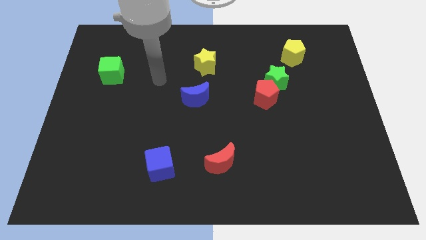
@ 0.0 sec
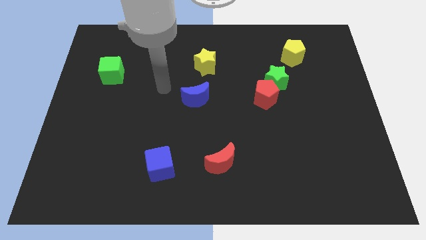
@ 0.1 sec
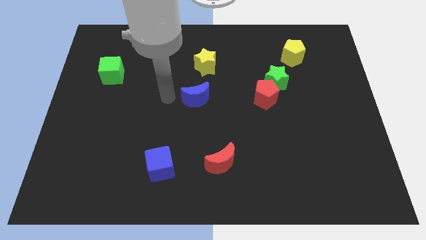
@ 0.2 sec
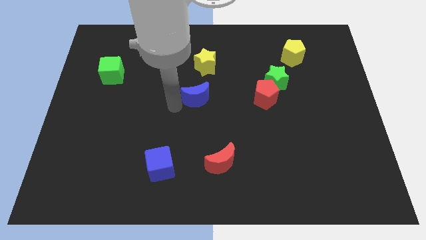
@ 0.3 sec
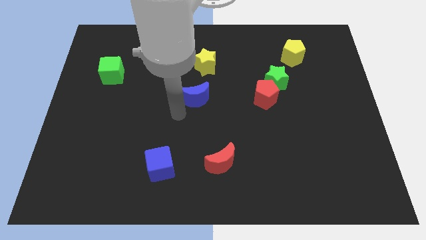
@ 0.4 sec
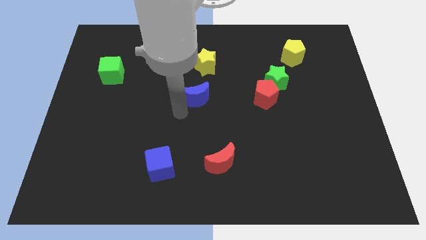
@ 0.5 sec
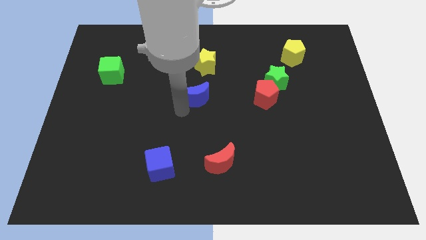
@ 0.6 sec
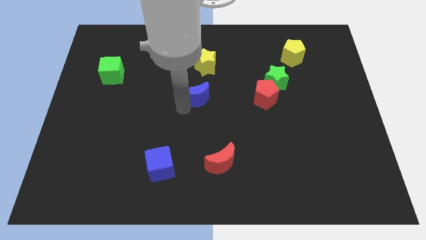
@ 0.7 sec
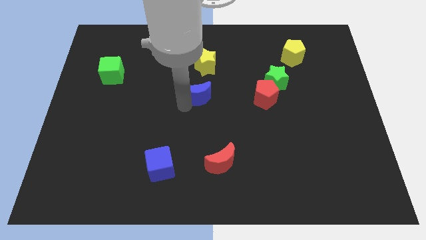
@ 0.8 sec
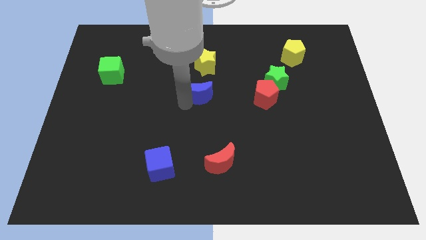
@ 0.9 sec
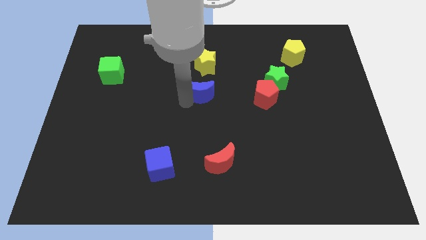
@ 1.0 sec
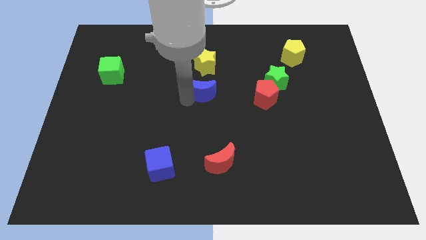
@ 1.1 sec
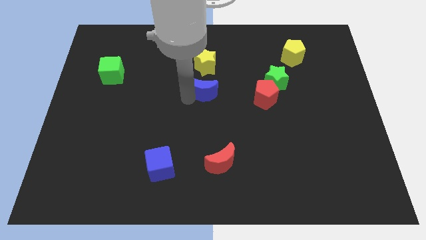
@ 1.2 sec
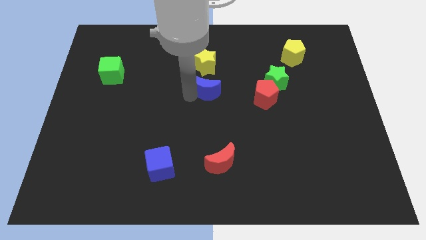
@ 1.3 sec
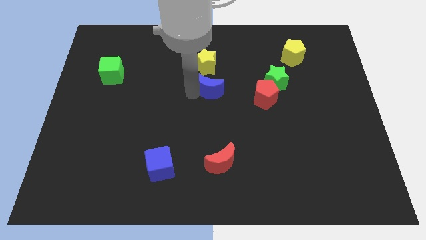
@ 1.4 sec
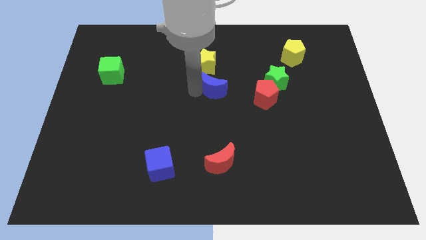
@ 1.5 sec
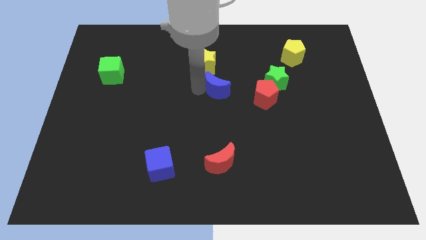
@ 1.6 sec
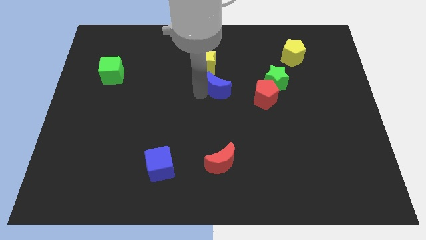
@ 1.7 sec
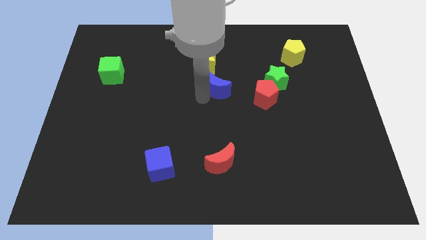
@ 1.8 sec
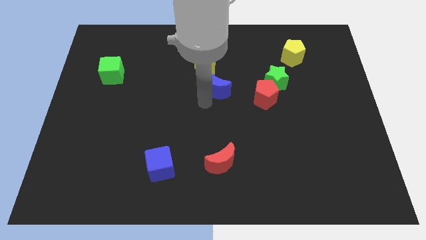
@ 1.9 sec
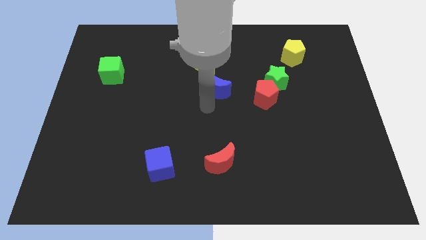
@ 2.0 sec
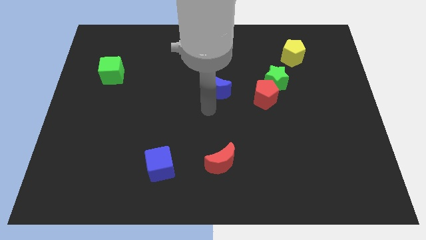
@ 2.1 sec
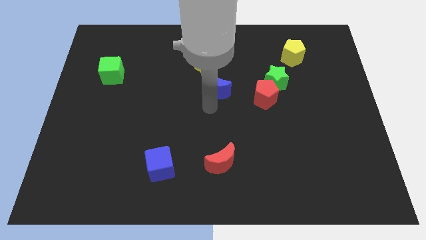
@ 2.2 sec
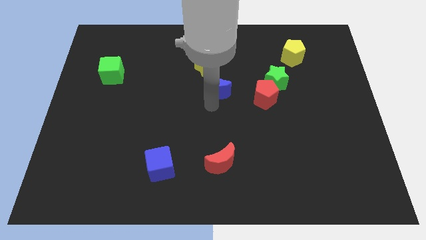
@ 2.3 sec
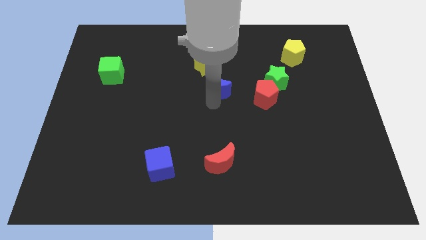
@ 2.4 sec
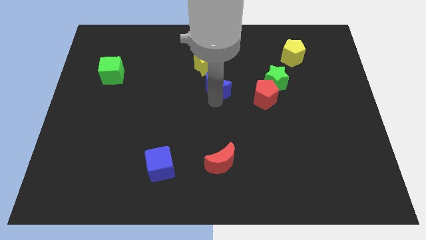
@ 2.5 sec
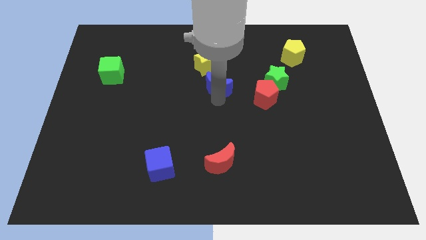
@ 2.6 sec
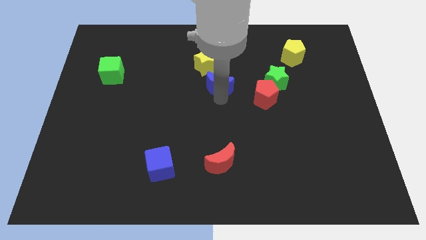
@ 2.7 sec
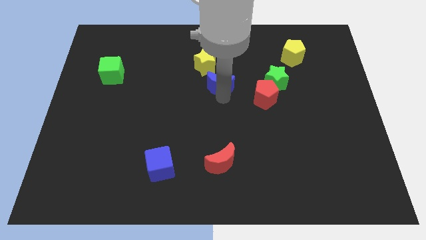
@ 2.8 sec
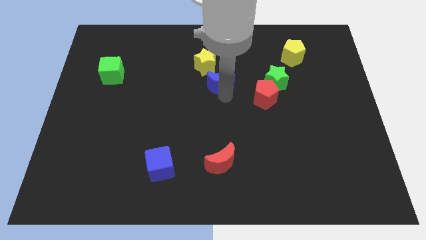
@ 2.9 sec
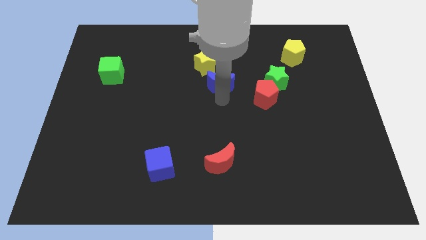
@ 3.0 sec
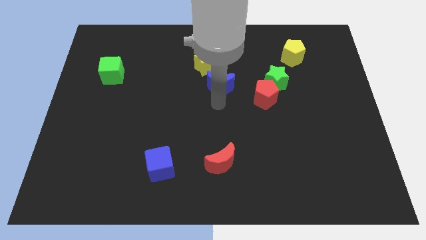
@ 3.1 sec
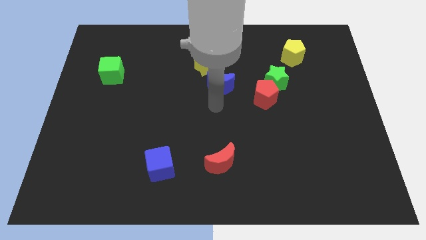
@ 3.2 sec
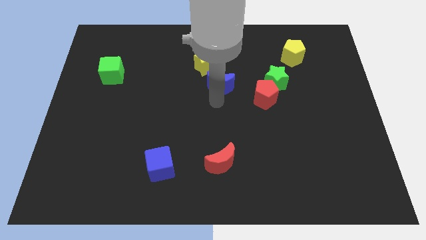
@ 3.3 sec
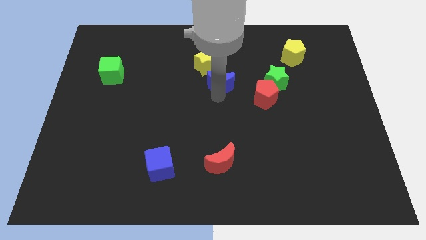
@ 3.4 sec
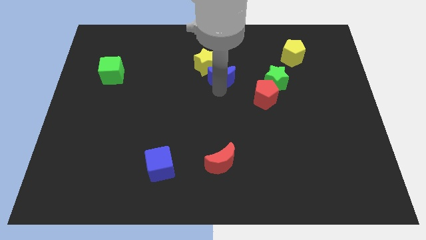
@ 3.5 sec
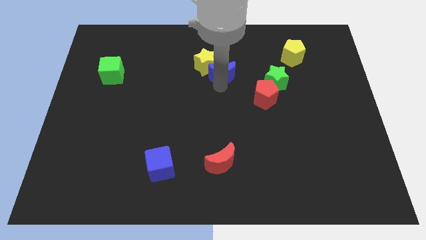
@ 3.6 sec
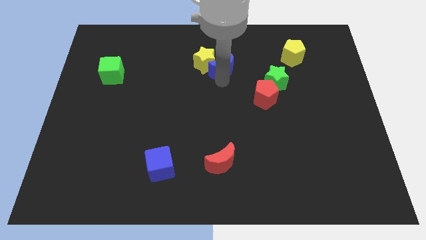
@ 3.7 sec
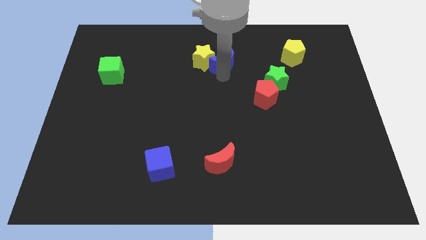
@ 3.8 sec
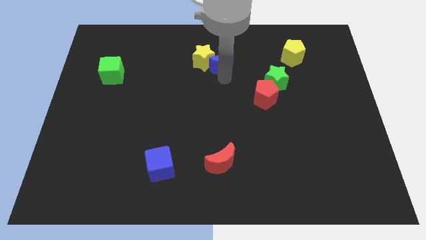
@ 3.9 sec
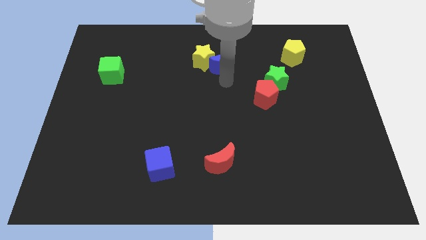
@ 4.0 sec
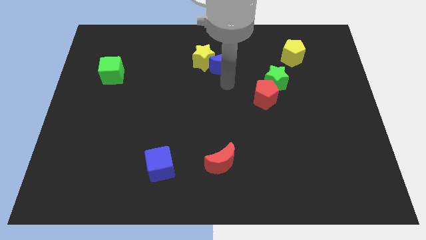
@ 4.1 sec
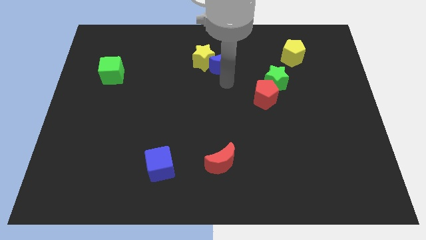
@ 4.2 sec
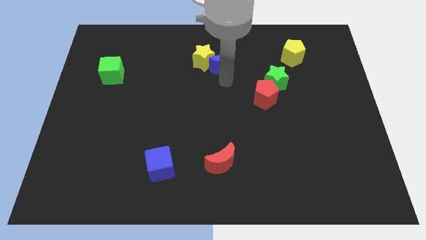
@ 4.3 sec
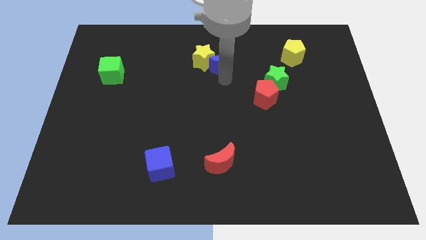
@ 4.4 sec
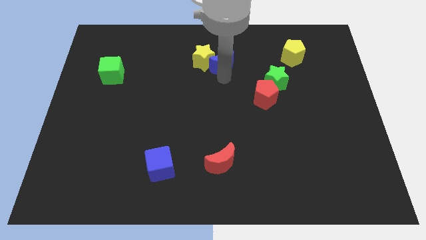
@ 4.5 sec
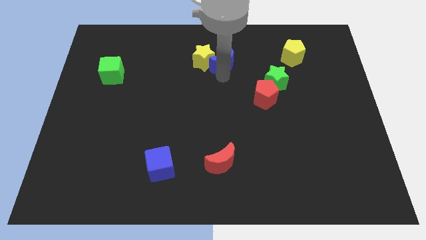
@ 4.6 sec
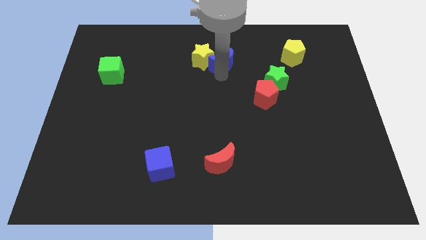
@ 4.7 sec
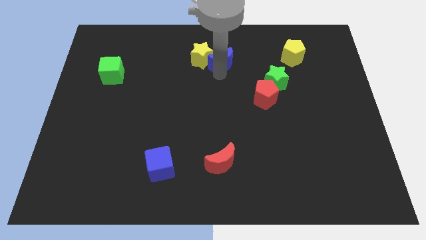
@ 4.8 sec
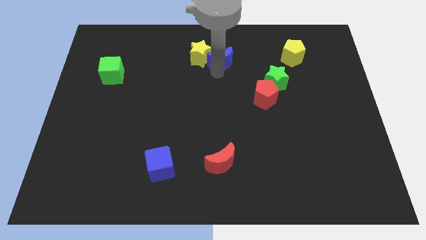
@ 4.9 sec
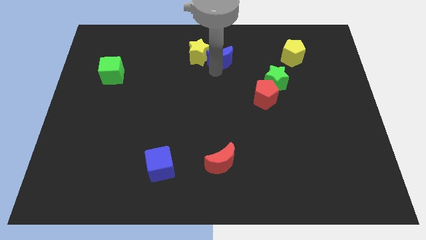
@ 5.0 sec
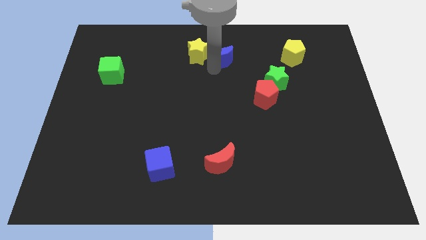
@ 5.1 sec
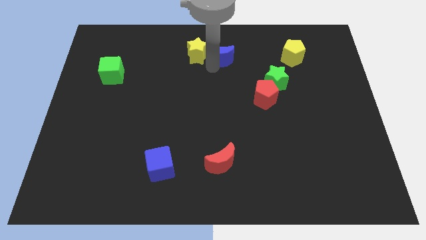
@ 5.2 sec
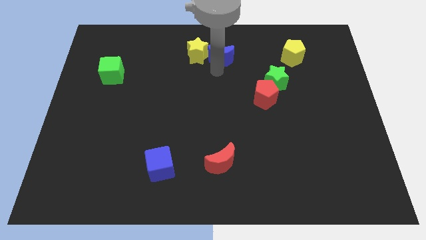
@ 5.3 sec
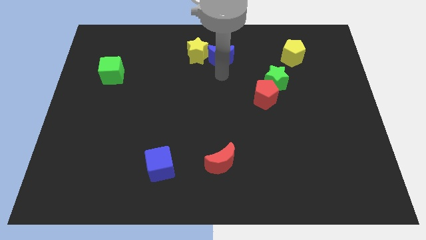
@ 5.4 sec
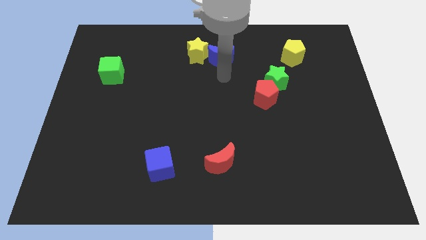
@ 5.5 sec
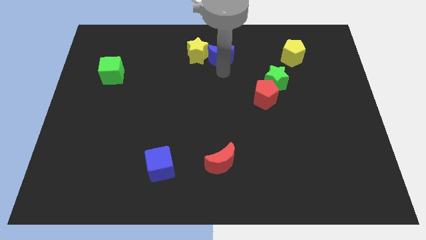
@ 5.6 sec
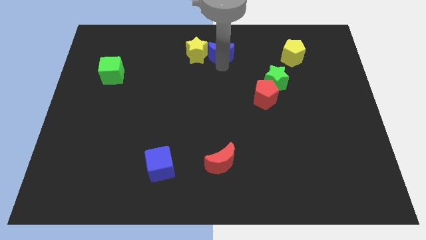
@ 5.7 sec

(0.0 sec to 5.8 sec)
move the blue moon to the top

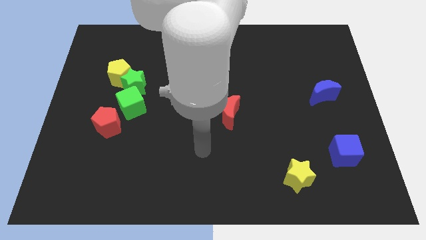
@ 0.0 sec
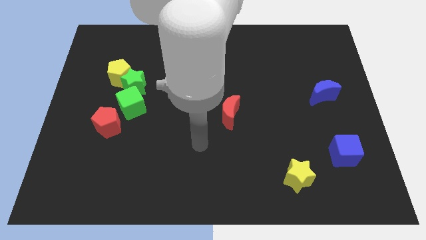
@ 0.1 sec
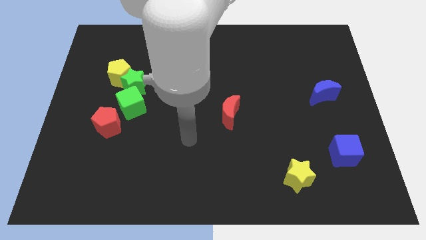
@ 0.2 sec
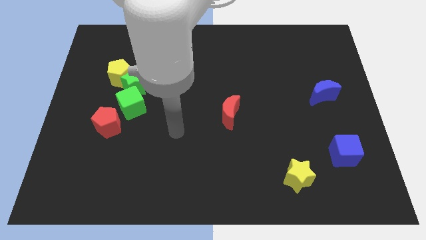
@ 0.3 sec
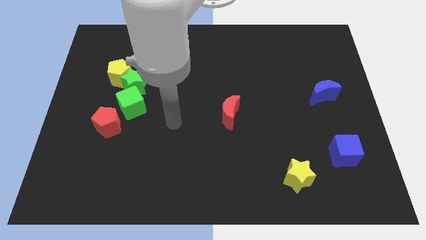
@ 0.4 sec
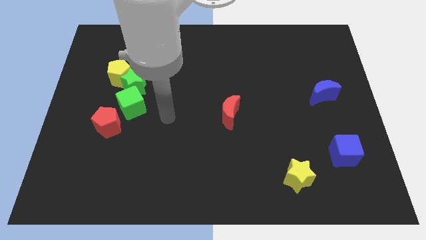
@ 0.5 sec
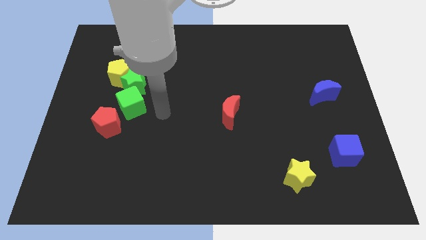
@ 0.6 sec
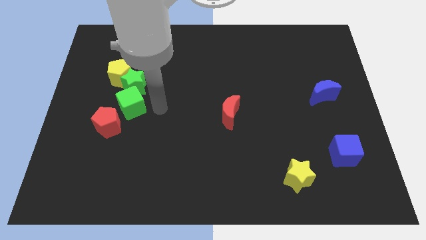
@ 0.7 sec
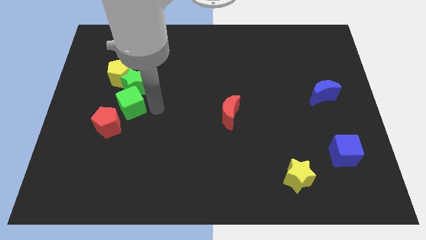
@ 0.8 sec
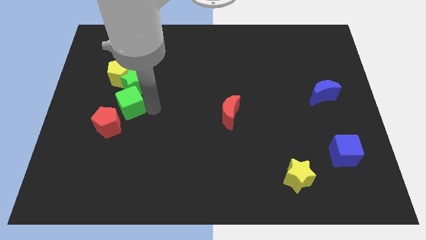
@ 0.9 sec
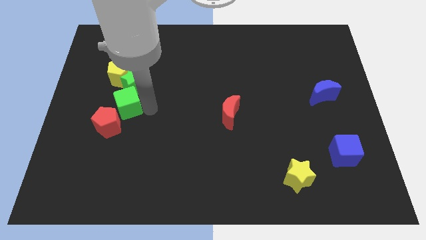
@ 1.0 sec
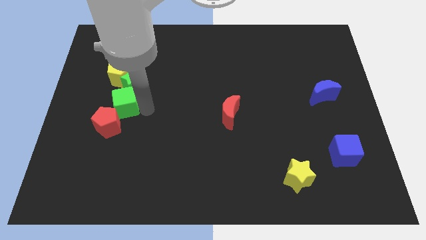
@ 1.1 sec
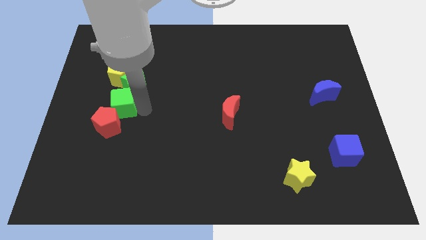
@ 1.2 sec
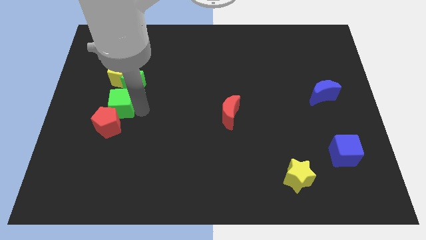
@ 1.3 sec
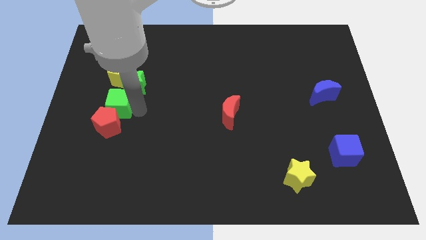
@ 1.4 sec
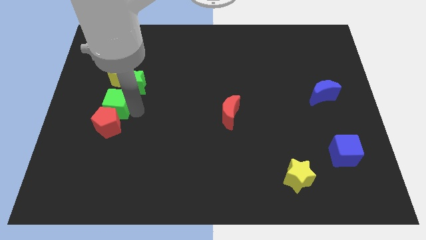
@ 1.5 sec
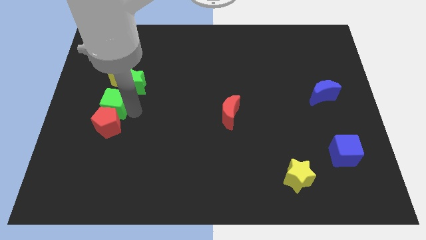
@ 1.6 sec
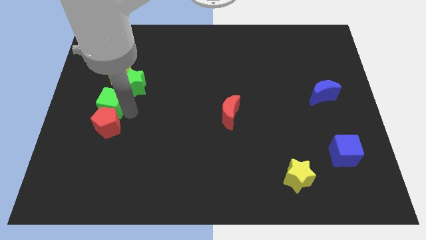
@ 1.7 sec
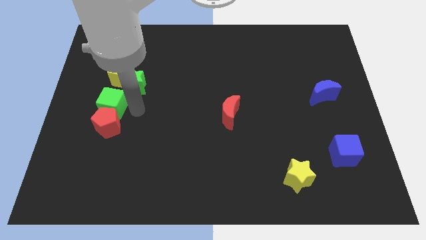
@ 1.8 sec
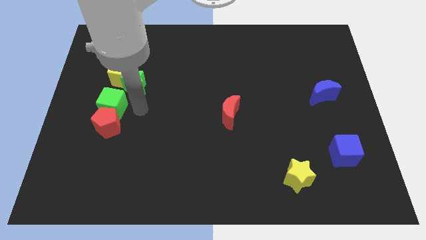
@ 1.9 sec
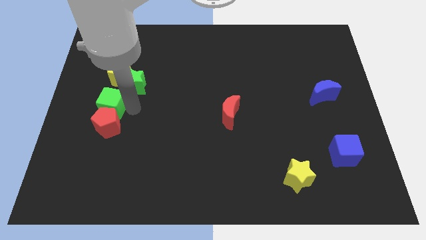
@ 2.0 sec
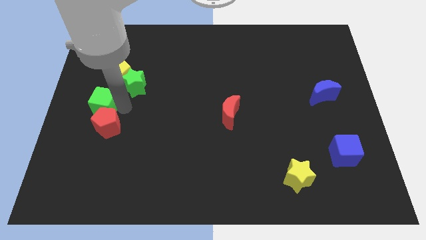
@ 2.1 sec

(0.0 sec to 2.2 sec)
push the green cube to the left side
